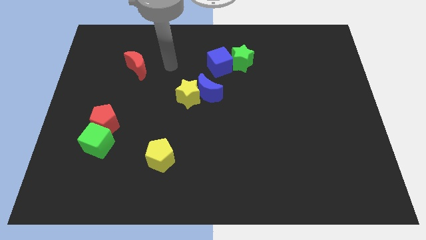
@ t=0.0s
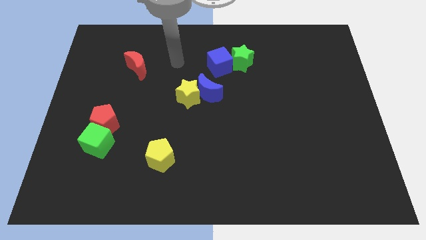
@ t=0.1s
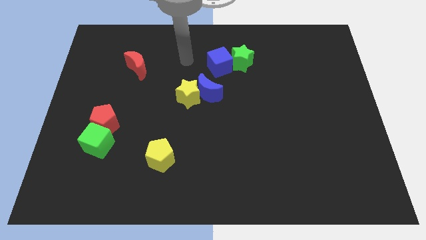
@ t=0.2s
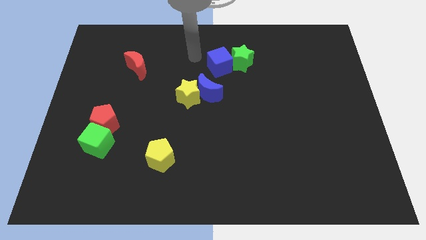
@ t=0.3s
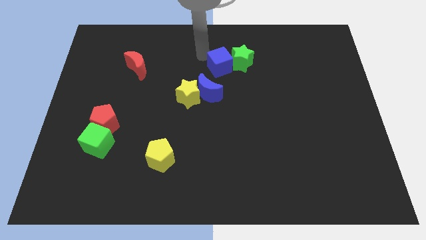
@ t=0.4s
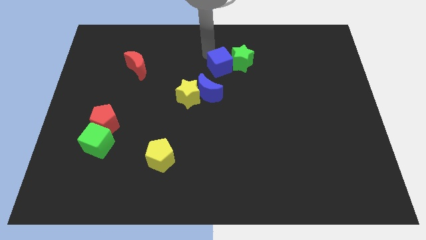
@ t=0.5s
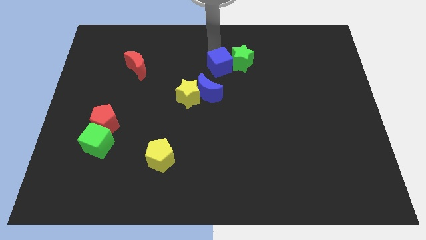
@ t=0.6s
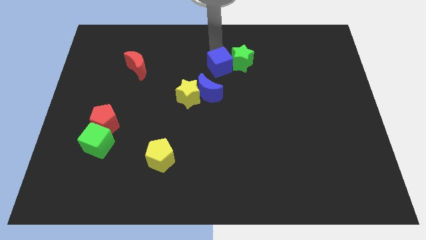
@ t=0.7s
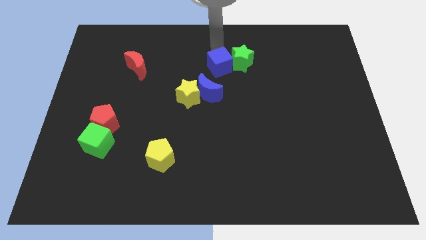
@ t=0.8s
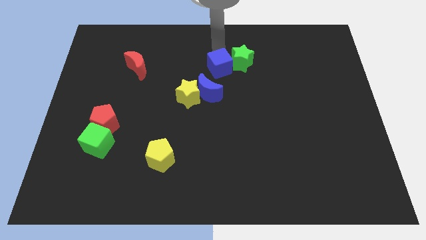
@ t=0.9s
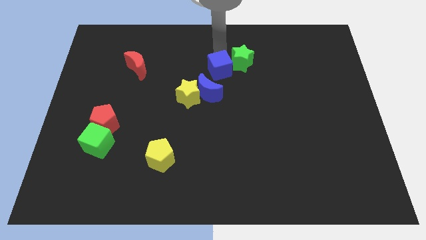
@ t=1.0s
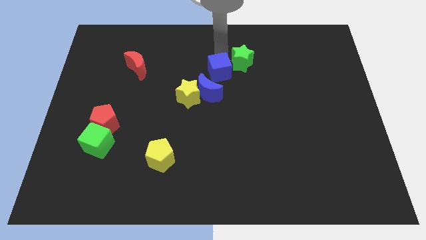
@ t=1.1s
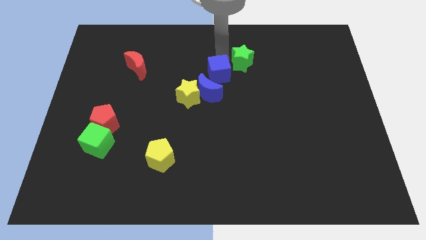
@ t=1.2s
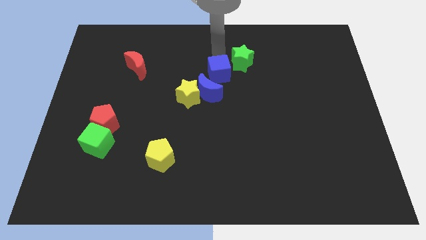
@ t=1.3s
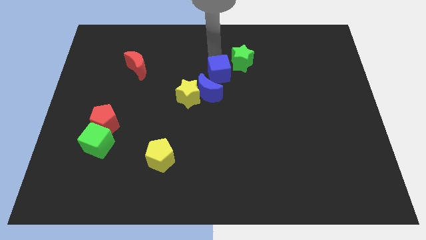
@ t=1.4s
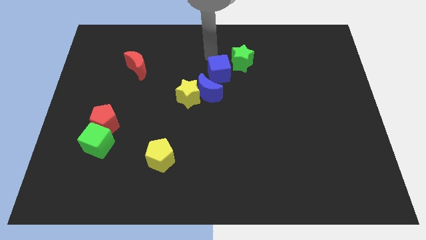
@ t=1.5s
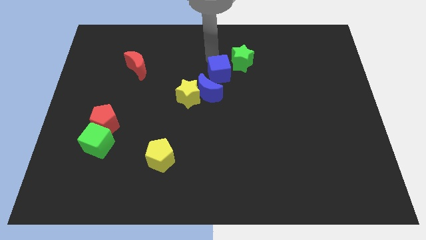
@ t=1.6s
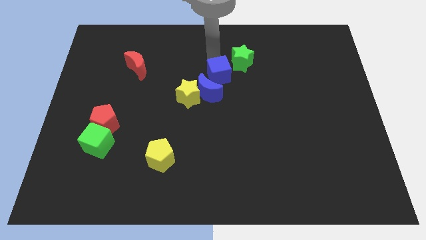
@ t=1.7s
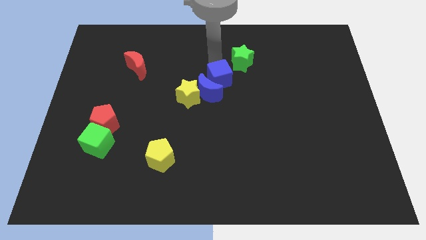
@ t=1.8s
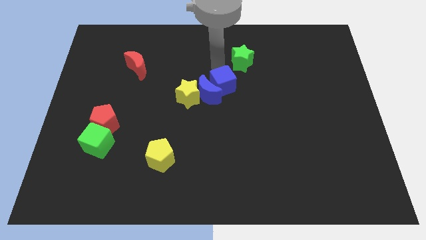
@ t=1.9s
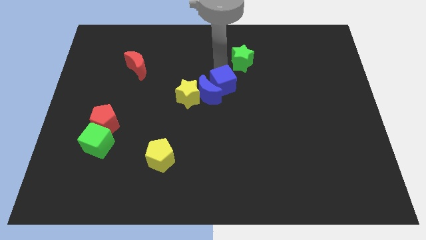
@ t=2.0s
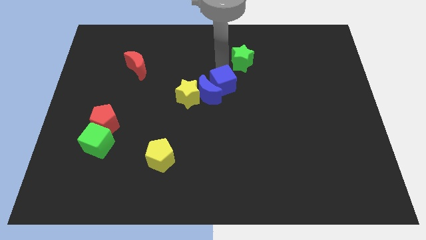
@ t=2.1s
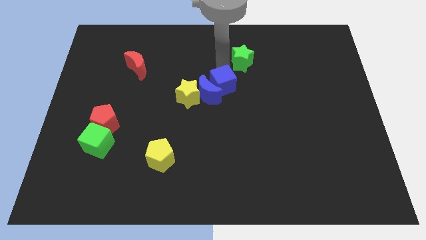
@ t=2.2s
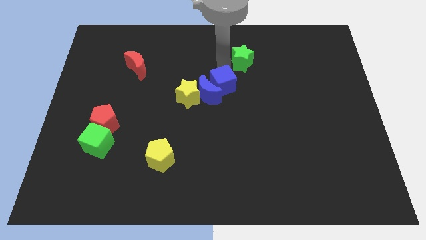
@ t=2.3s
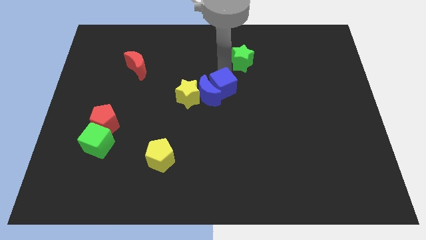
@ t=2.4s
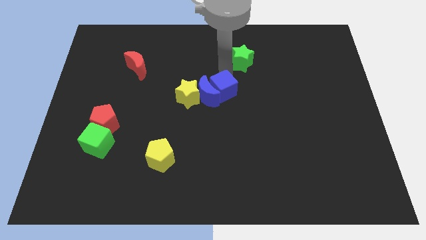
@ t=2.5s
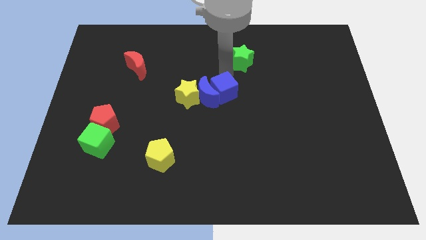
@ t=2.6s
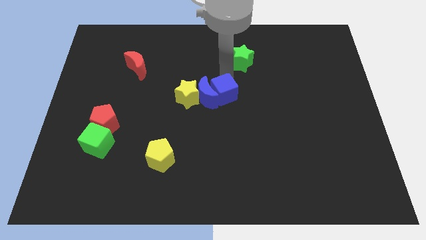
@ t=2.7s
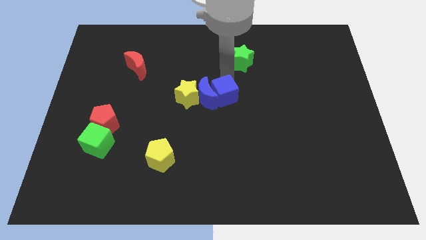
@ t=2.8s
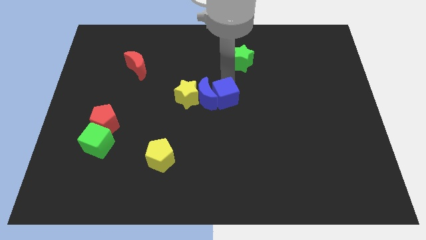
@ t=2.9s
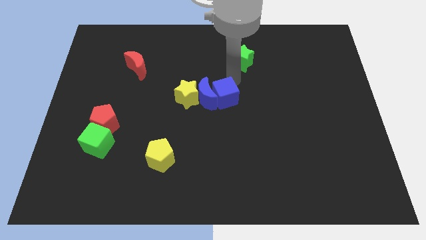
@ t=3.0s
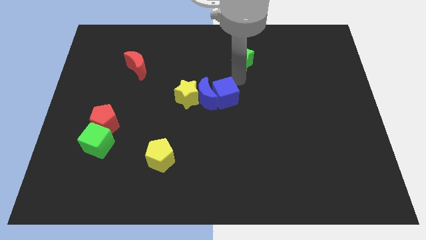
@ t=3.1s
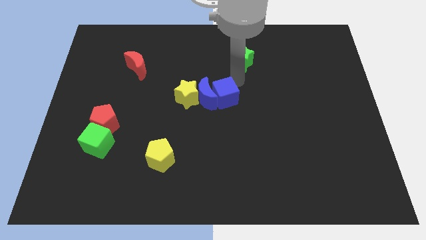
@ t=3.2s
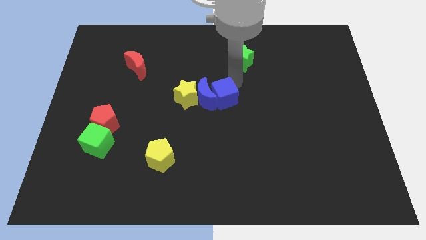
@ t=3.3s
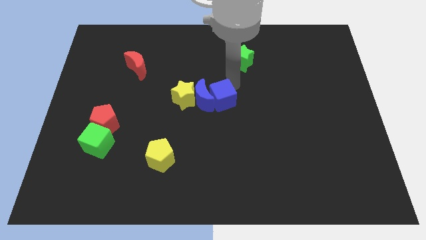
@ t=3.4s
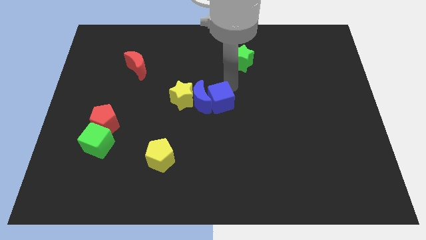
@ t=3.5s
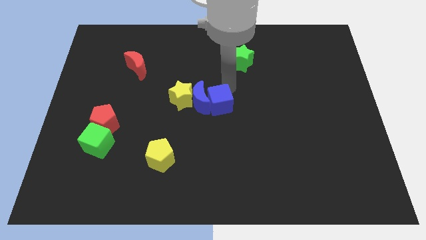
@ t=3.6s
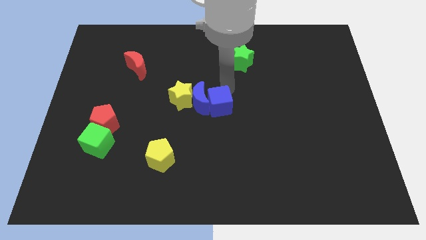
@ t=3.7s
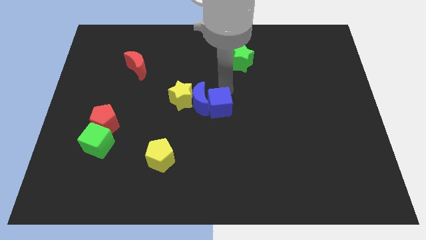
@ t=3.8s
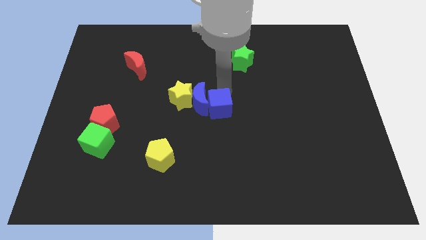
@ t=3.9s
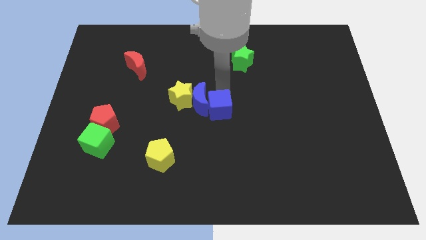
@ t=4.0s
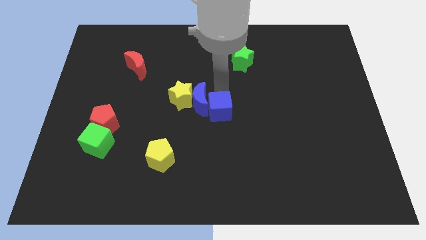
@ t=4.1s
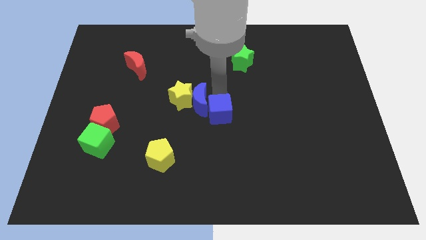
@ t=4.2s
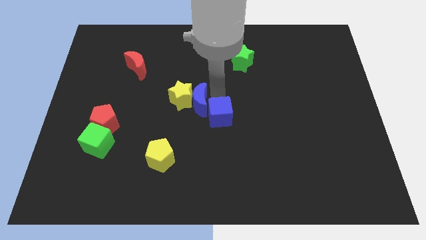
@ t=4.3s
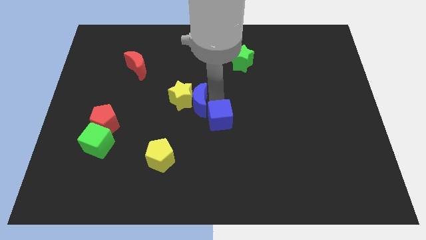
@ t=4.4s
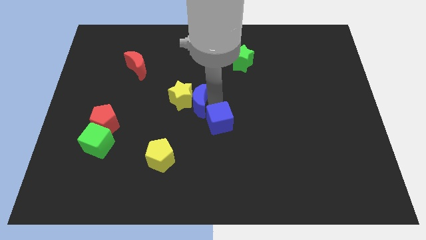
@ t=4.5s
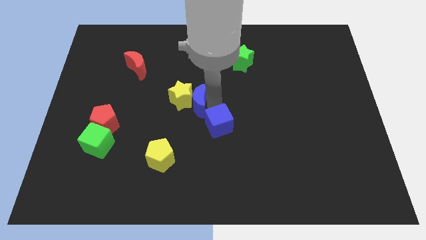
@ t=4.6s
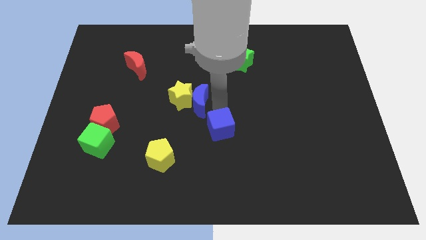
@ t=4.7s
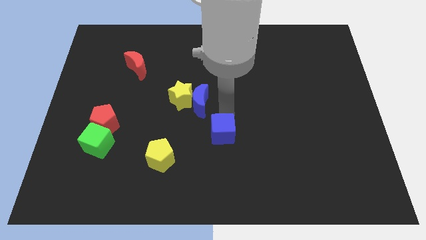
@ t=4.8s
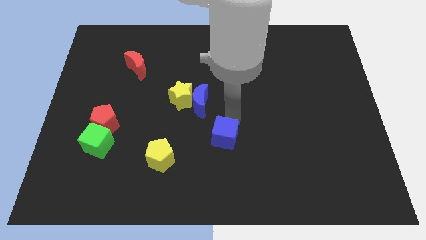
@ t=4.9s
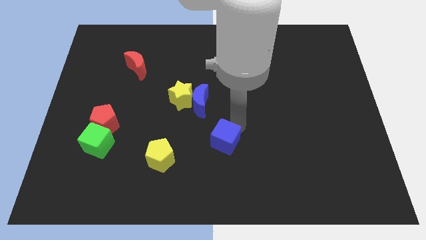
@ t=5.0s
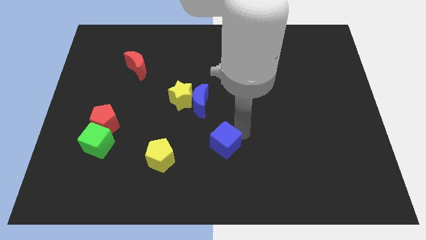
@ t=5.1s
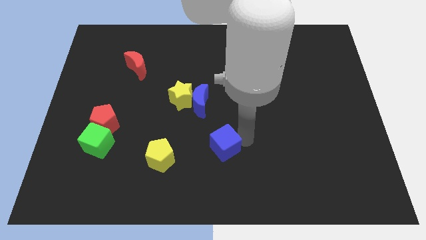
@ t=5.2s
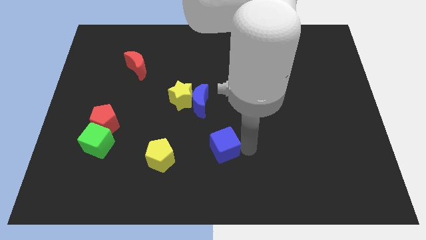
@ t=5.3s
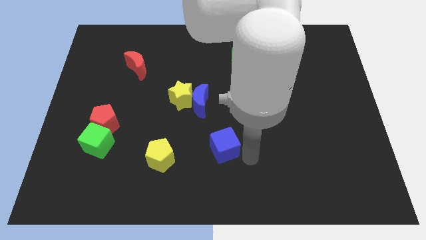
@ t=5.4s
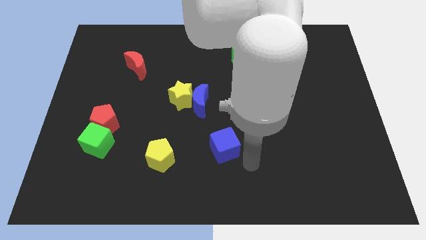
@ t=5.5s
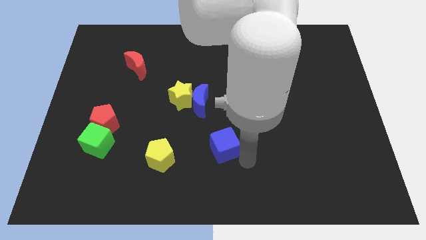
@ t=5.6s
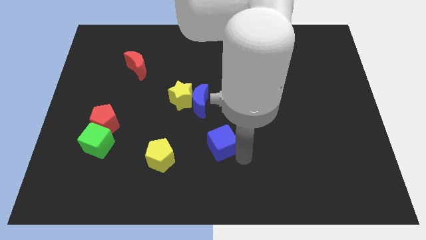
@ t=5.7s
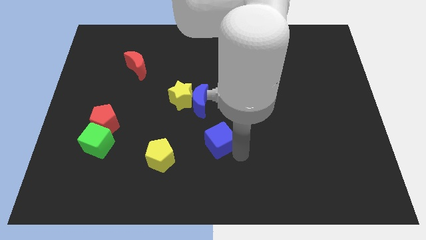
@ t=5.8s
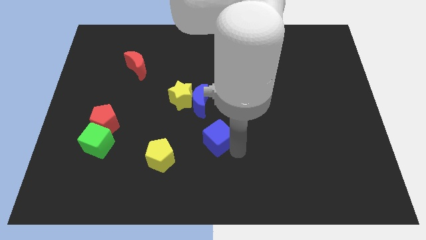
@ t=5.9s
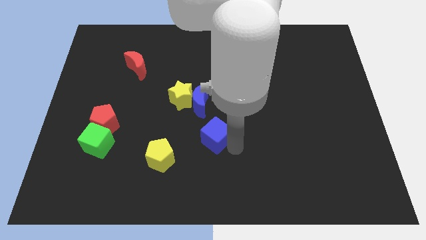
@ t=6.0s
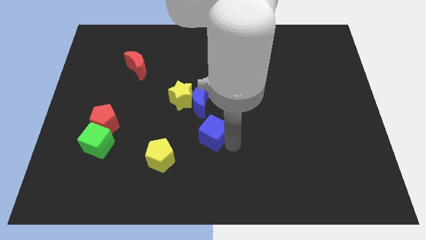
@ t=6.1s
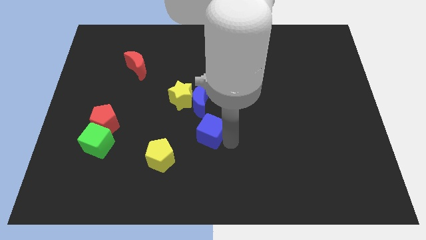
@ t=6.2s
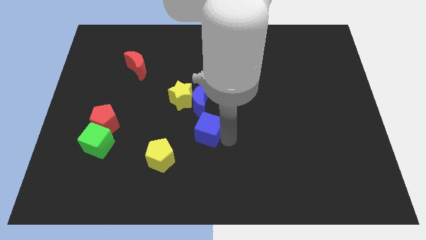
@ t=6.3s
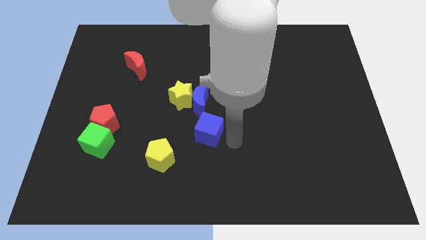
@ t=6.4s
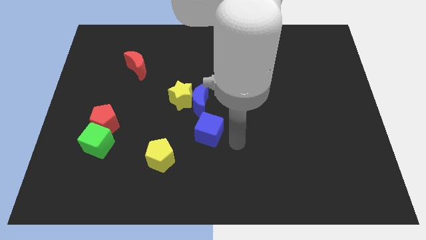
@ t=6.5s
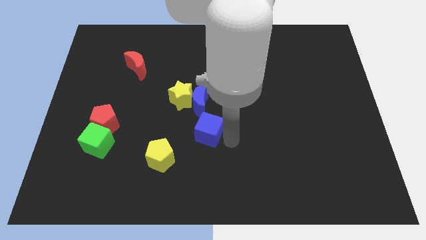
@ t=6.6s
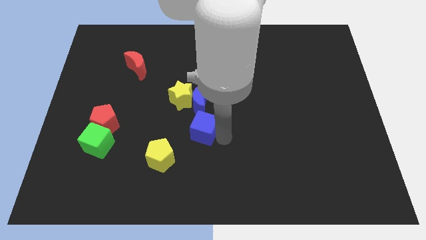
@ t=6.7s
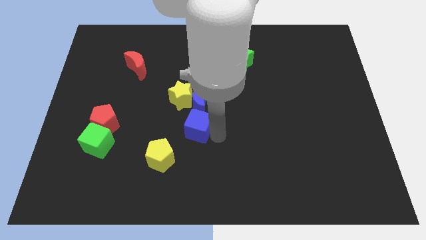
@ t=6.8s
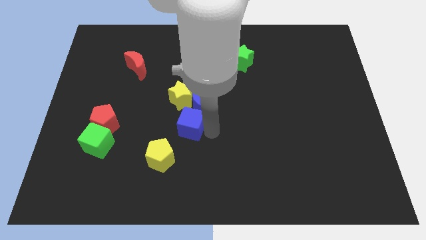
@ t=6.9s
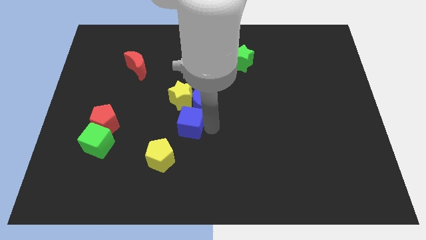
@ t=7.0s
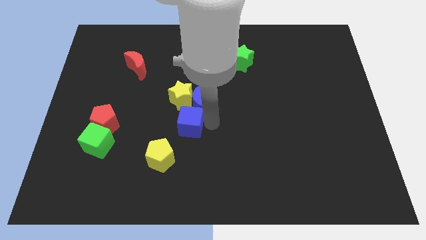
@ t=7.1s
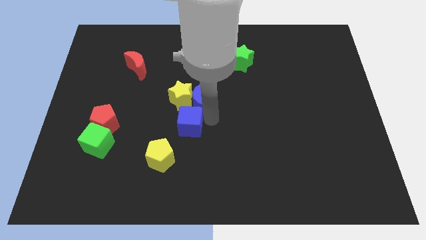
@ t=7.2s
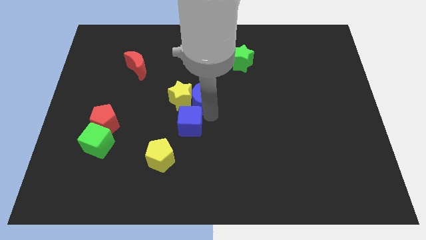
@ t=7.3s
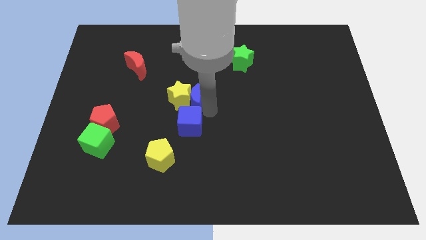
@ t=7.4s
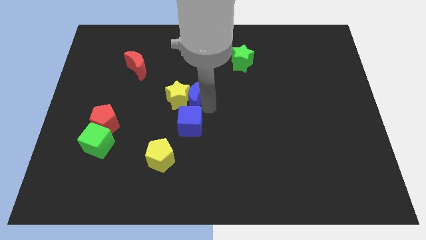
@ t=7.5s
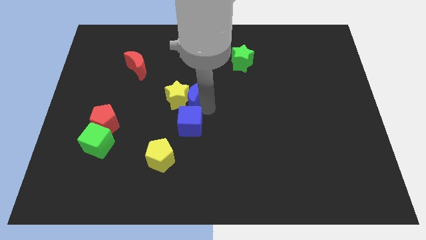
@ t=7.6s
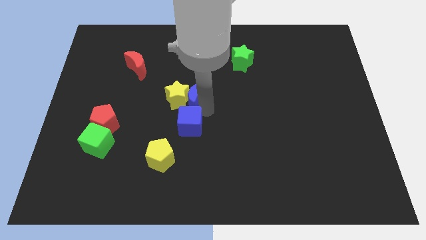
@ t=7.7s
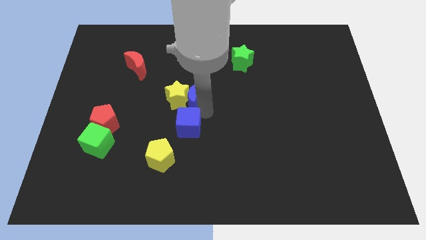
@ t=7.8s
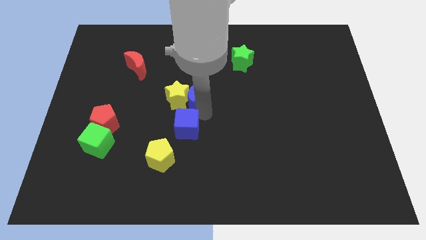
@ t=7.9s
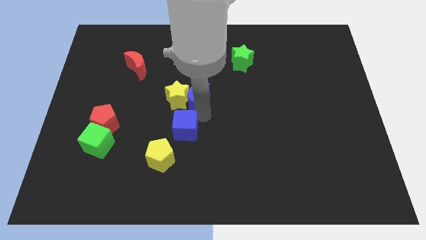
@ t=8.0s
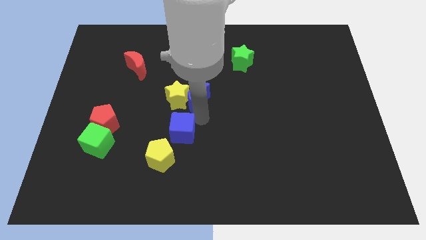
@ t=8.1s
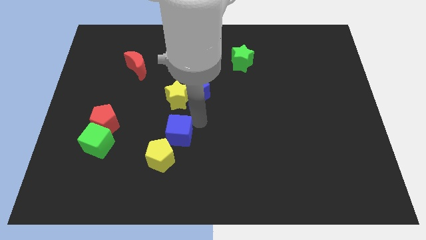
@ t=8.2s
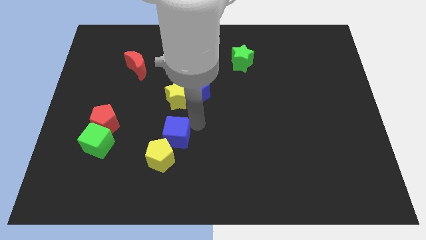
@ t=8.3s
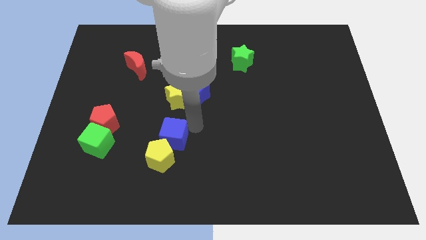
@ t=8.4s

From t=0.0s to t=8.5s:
slide the blue cube close to the yellow pentagon

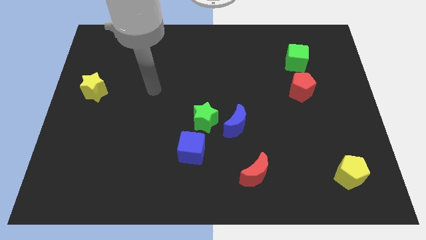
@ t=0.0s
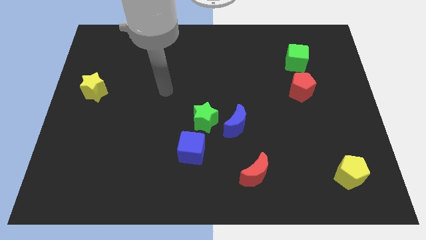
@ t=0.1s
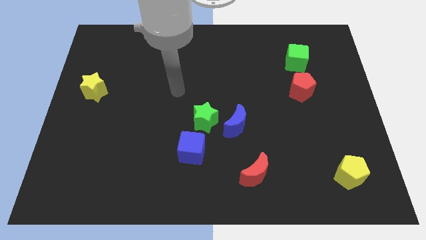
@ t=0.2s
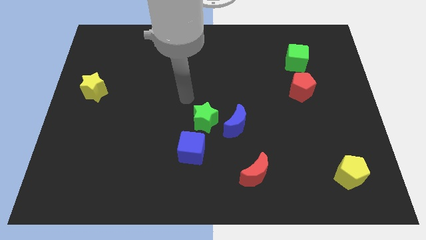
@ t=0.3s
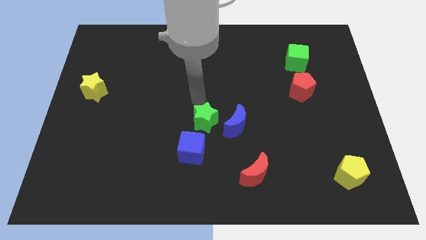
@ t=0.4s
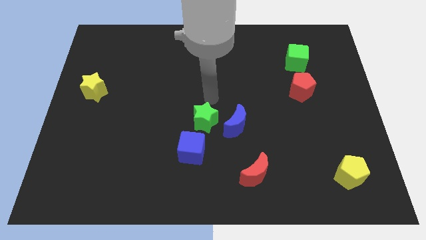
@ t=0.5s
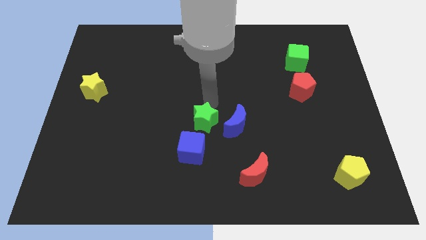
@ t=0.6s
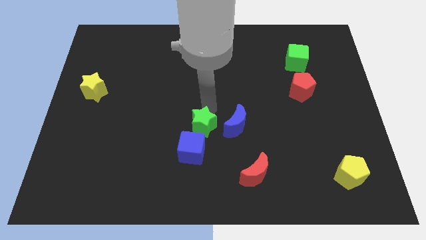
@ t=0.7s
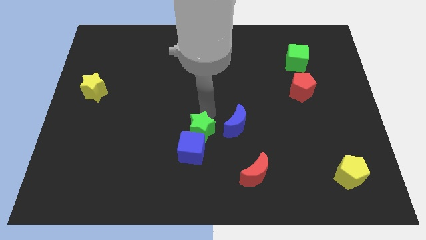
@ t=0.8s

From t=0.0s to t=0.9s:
put the green star close to the blue cube
